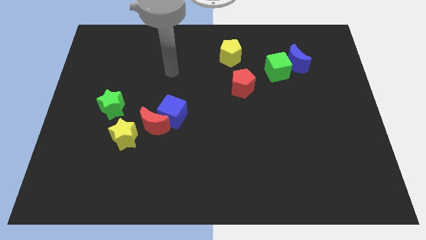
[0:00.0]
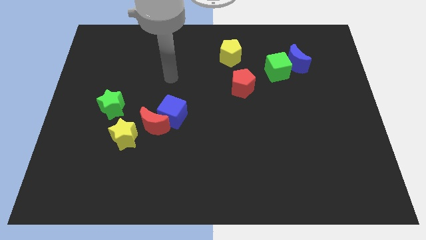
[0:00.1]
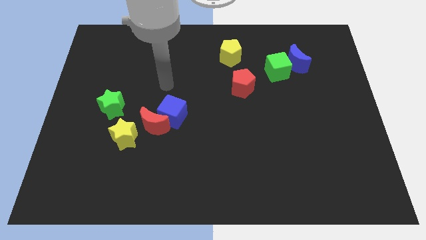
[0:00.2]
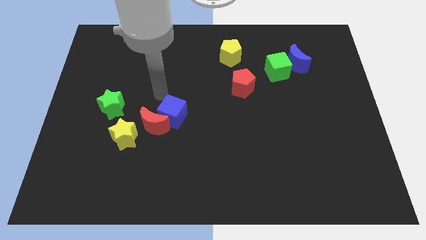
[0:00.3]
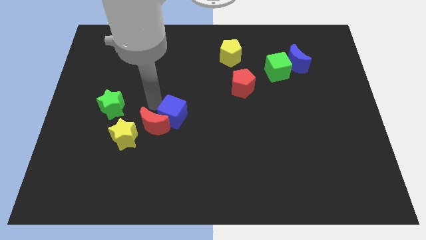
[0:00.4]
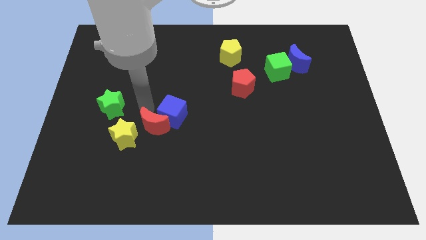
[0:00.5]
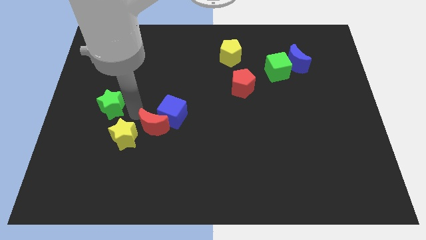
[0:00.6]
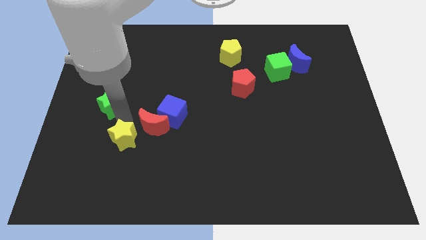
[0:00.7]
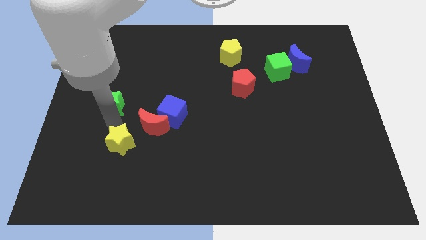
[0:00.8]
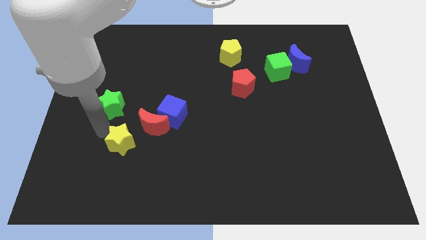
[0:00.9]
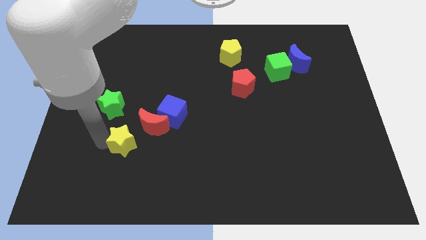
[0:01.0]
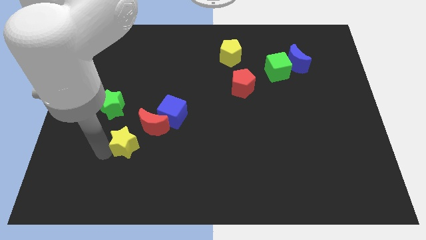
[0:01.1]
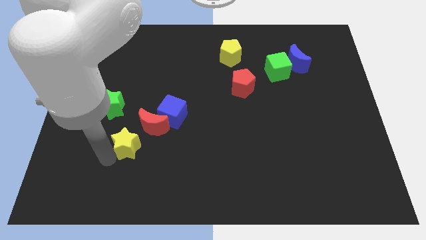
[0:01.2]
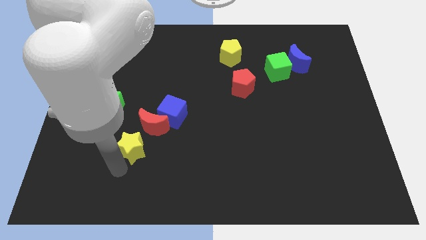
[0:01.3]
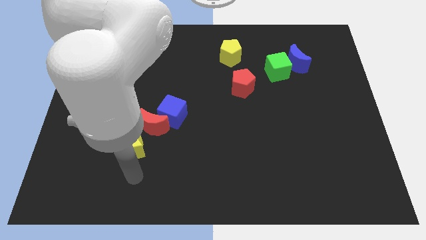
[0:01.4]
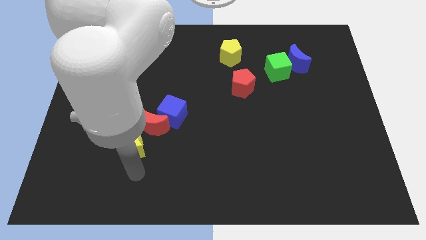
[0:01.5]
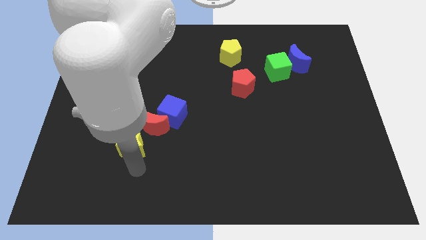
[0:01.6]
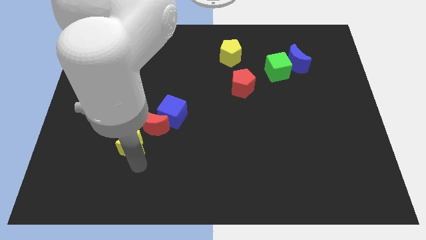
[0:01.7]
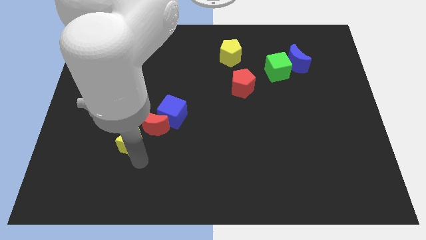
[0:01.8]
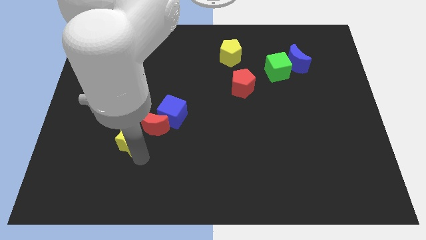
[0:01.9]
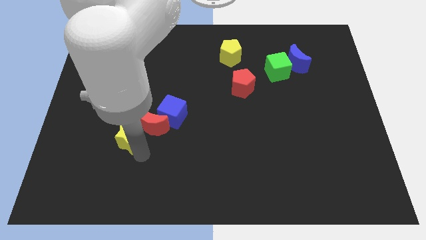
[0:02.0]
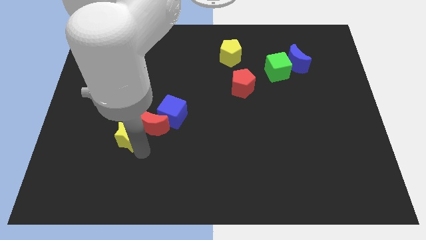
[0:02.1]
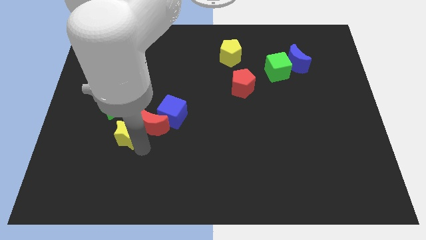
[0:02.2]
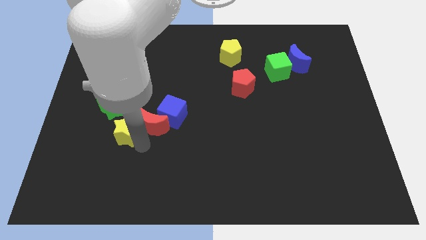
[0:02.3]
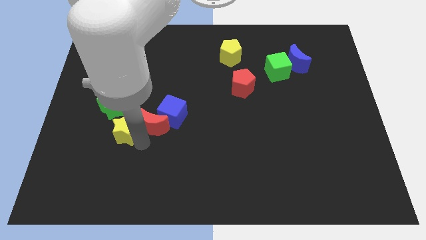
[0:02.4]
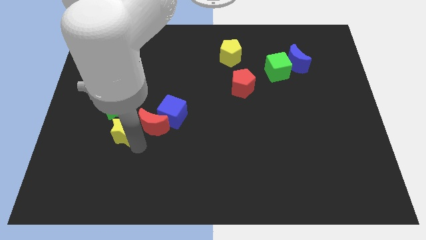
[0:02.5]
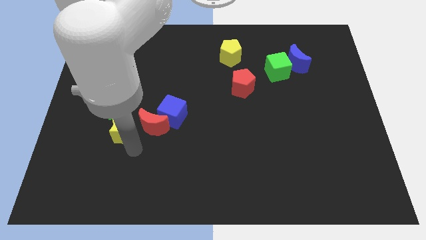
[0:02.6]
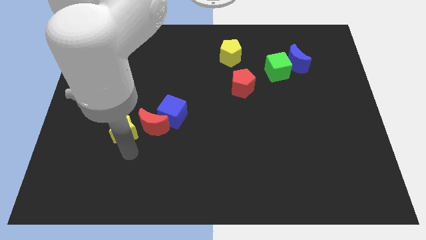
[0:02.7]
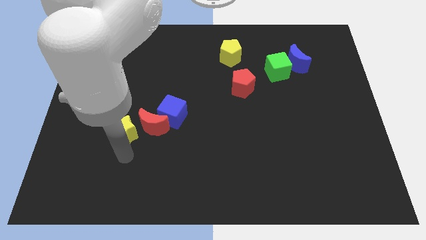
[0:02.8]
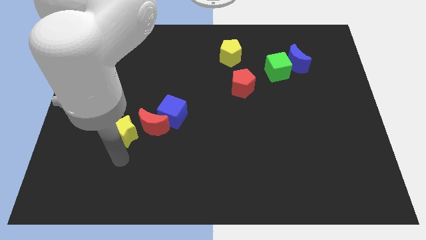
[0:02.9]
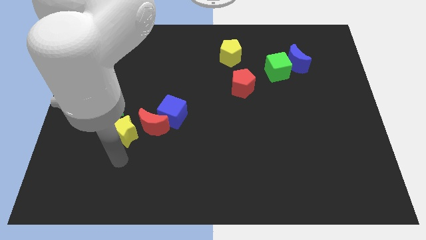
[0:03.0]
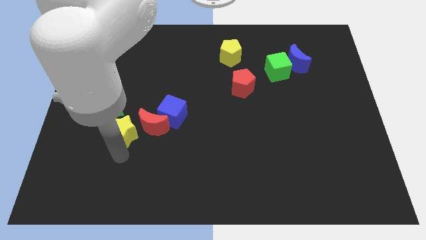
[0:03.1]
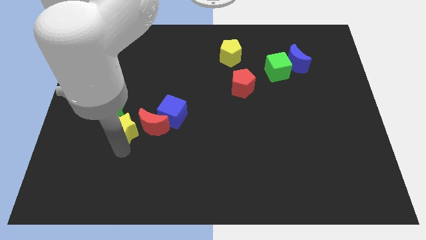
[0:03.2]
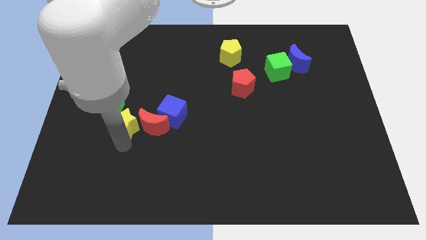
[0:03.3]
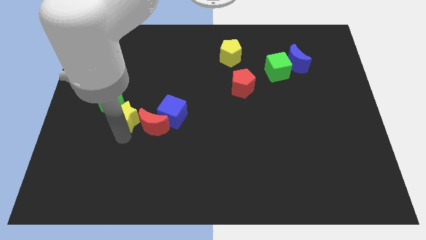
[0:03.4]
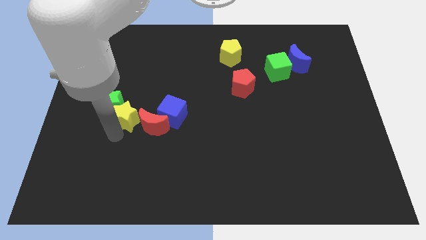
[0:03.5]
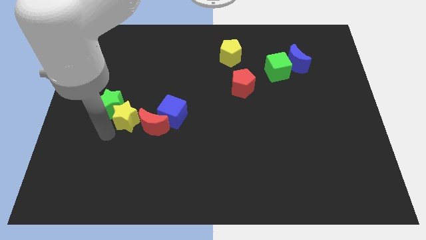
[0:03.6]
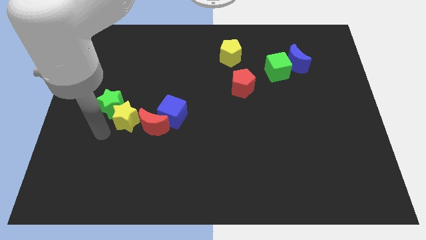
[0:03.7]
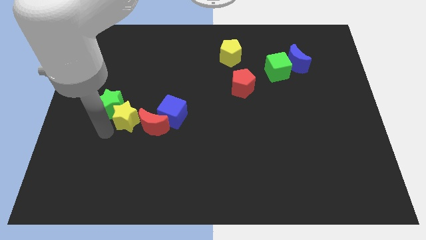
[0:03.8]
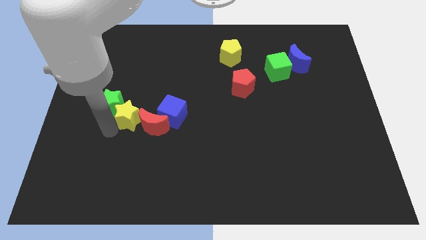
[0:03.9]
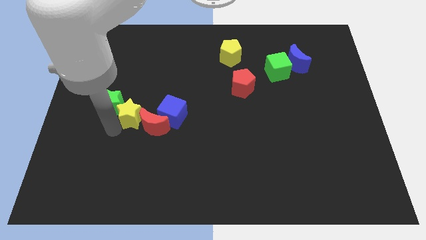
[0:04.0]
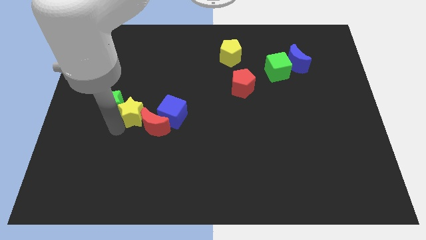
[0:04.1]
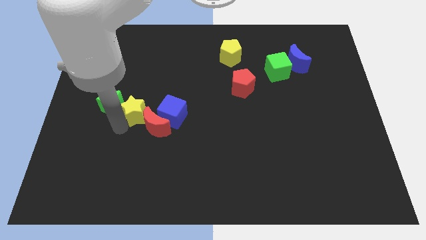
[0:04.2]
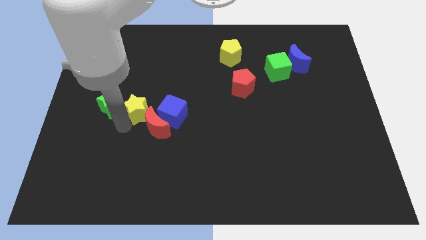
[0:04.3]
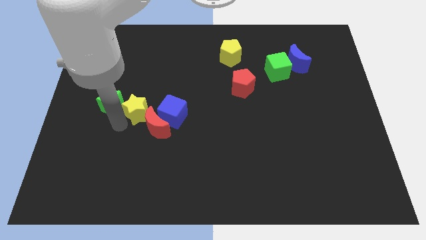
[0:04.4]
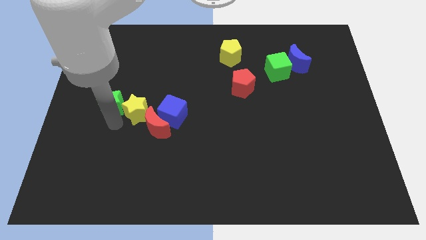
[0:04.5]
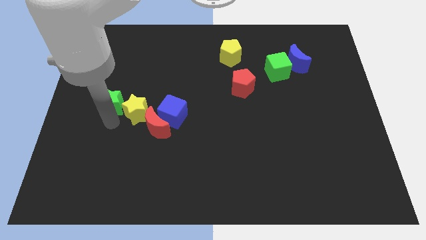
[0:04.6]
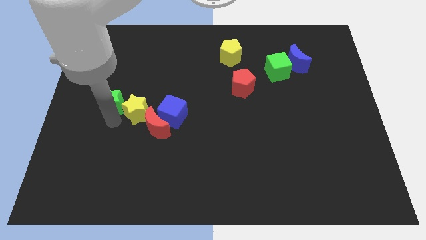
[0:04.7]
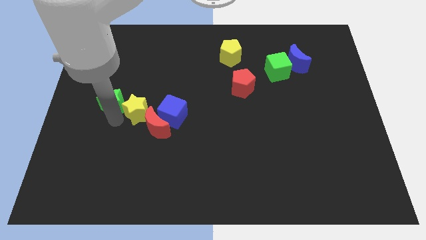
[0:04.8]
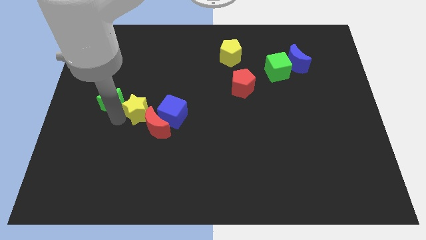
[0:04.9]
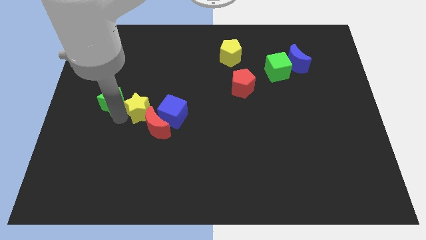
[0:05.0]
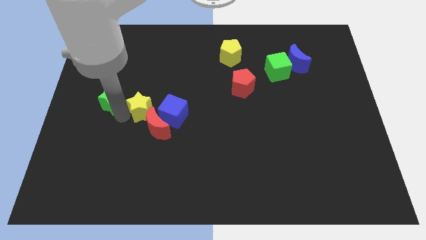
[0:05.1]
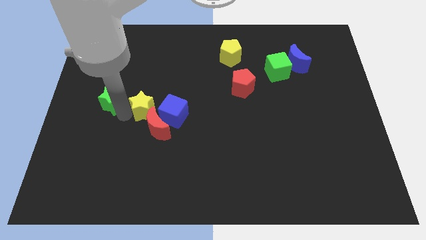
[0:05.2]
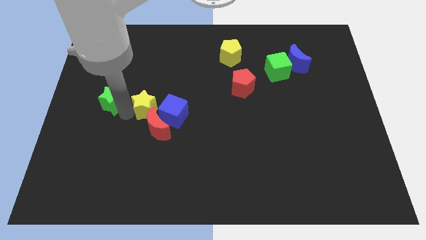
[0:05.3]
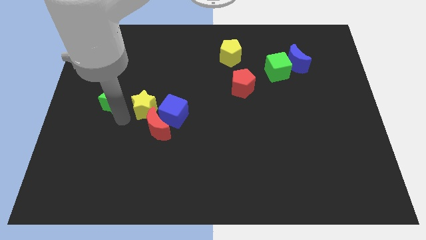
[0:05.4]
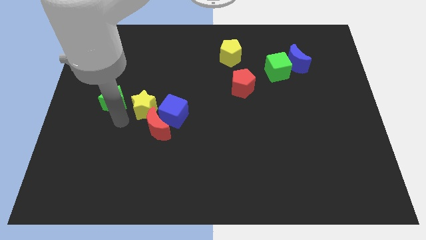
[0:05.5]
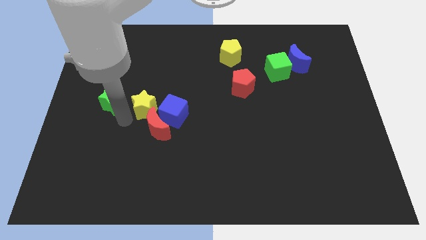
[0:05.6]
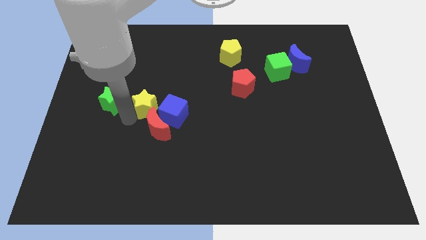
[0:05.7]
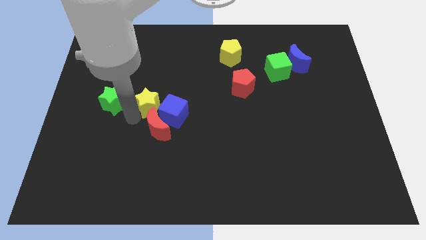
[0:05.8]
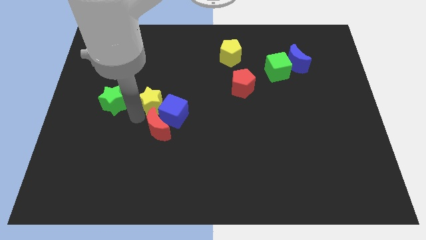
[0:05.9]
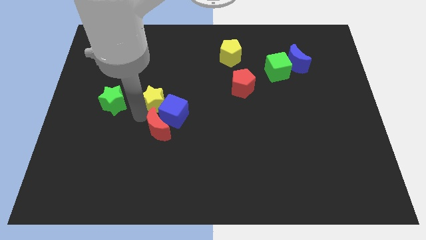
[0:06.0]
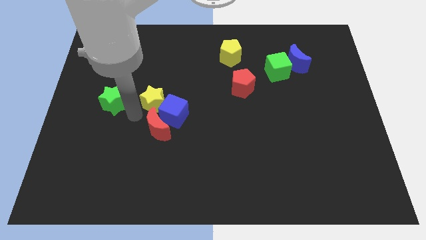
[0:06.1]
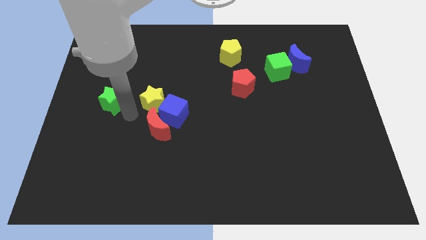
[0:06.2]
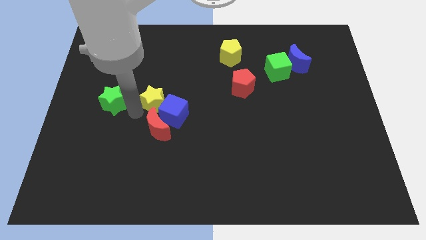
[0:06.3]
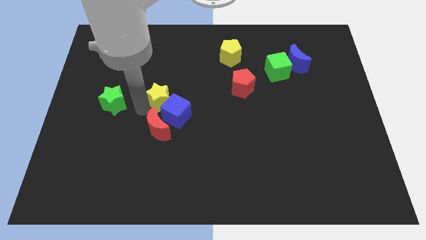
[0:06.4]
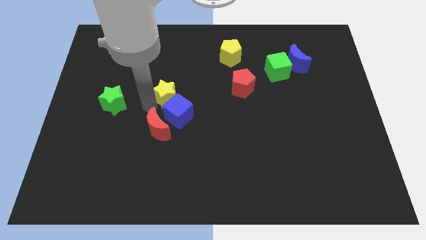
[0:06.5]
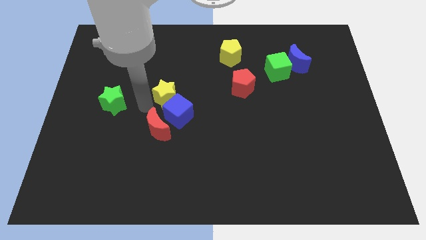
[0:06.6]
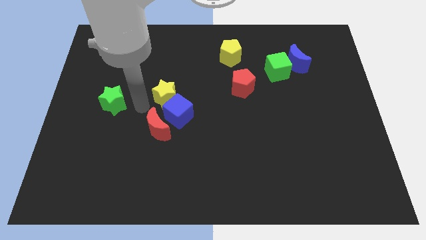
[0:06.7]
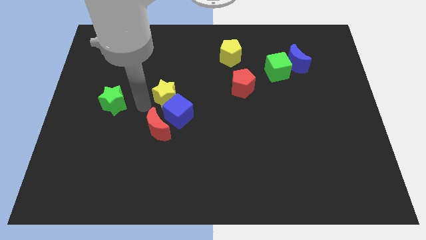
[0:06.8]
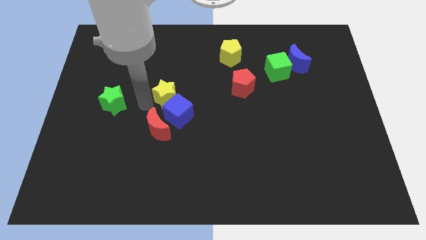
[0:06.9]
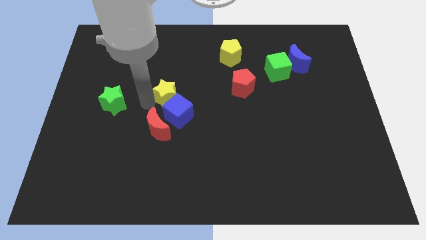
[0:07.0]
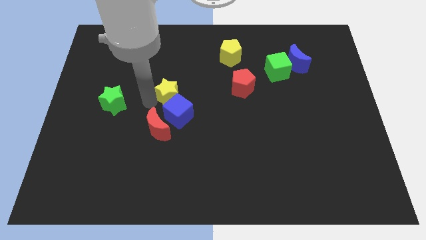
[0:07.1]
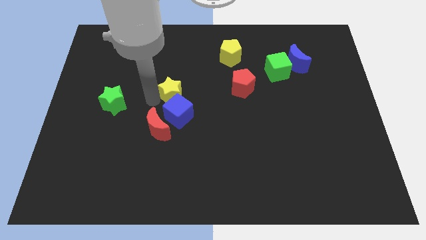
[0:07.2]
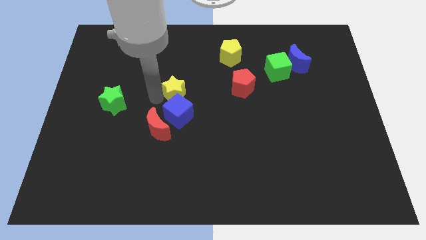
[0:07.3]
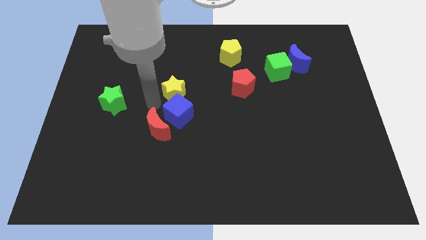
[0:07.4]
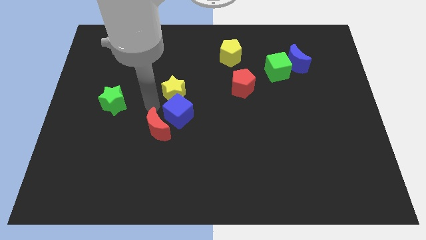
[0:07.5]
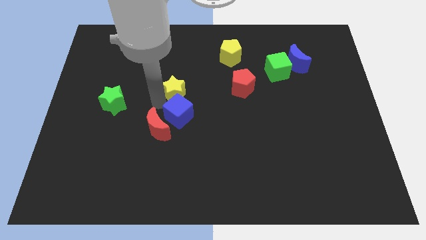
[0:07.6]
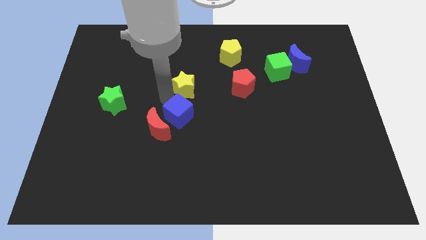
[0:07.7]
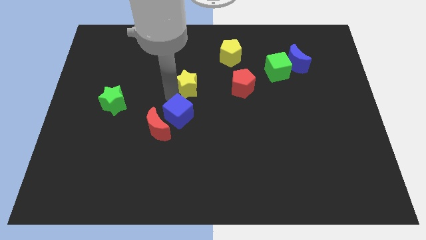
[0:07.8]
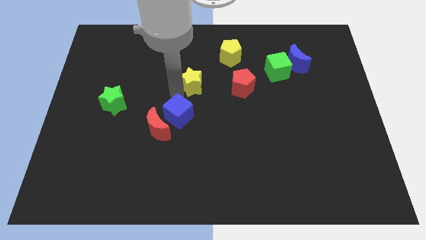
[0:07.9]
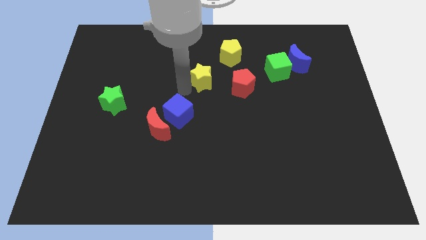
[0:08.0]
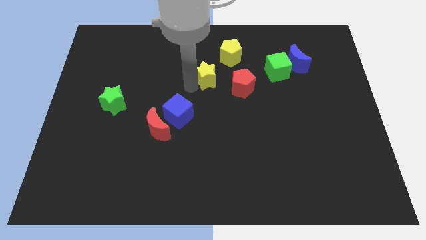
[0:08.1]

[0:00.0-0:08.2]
push the yellow star to the top left of the red pentagon
